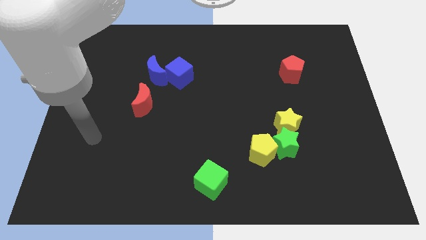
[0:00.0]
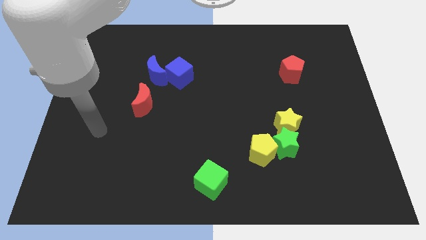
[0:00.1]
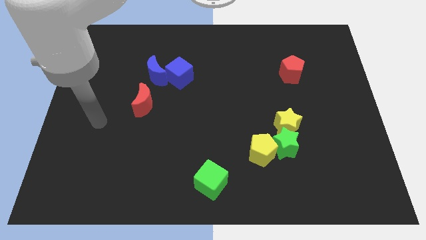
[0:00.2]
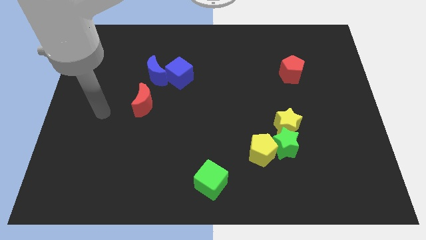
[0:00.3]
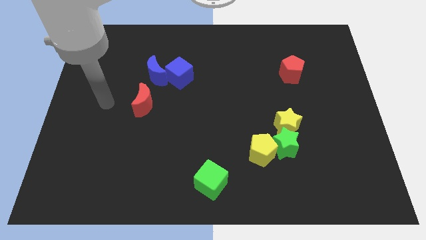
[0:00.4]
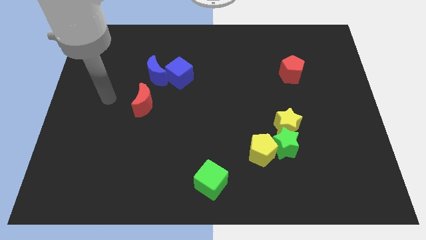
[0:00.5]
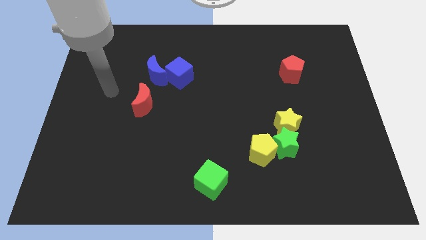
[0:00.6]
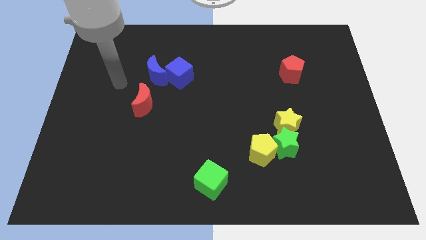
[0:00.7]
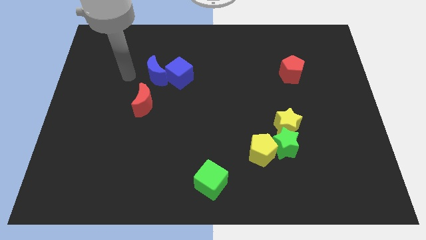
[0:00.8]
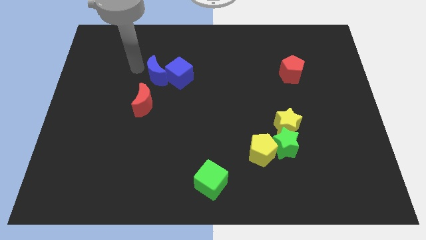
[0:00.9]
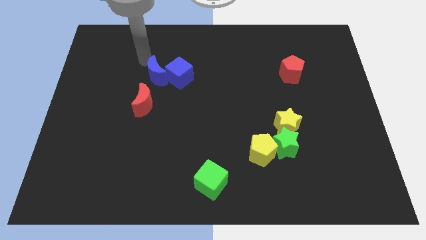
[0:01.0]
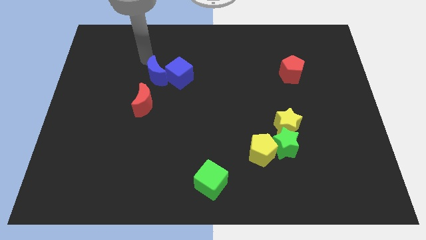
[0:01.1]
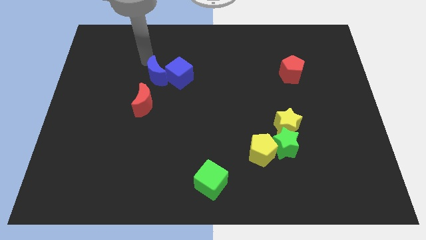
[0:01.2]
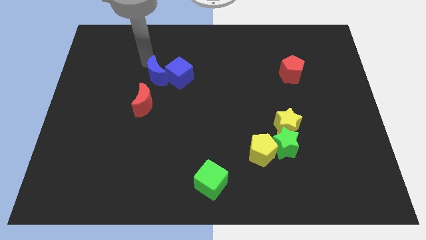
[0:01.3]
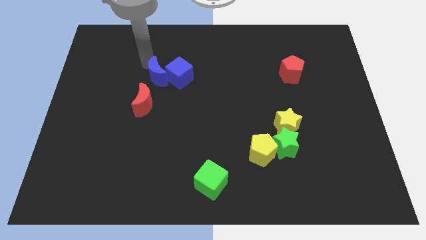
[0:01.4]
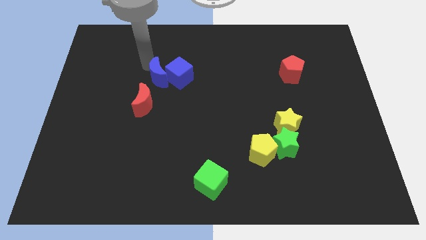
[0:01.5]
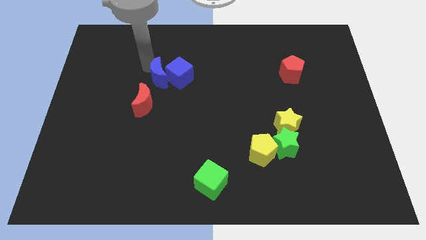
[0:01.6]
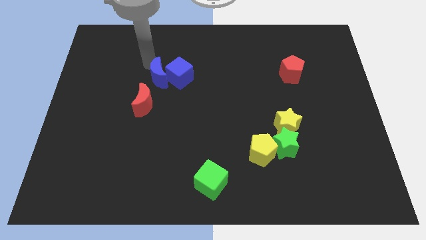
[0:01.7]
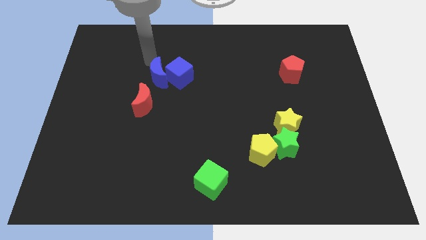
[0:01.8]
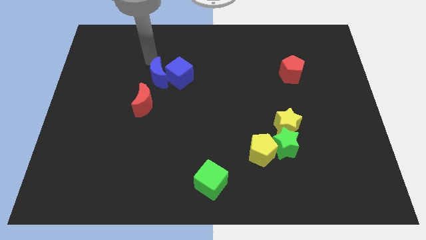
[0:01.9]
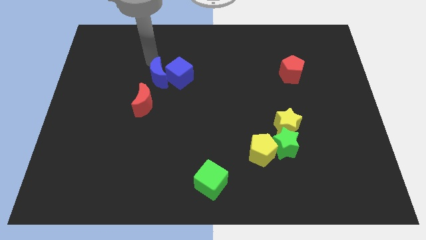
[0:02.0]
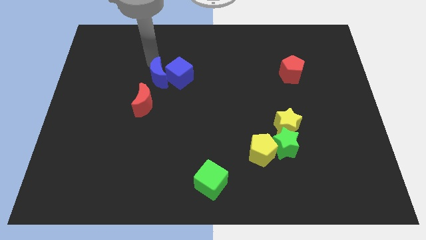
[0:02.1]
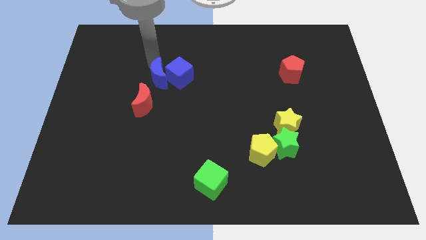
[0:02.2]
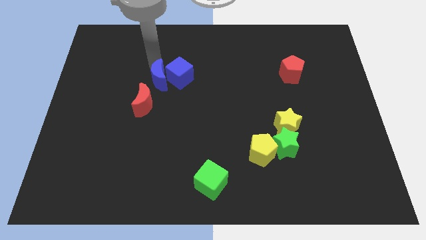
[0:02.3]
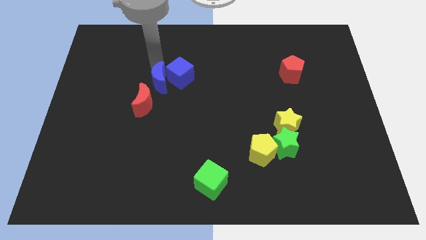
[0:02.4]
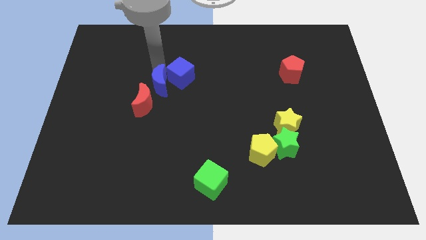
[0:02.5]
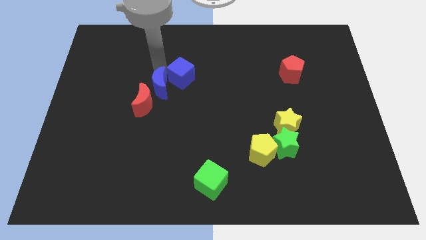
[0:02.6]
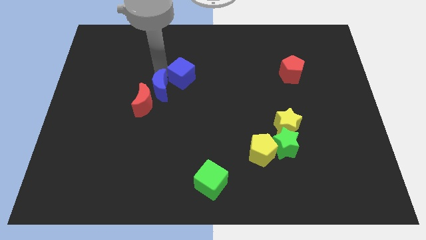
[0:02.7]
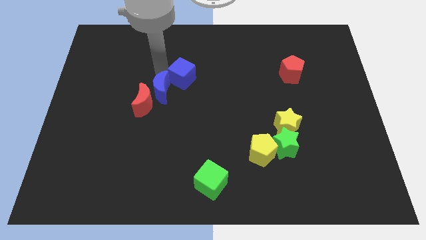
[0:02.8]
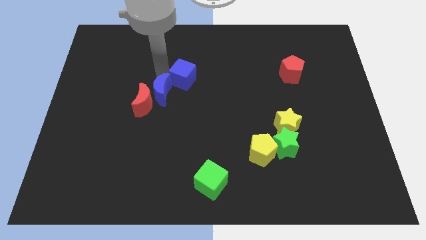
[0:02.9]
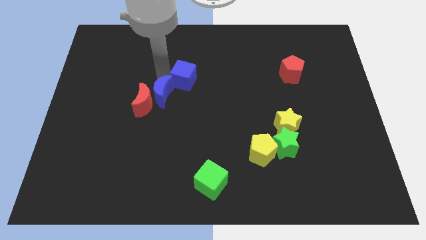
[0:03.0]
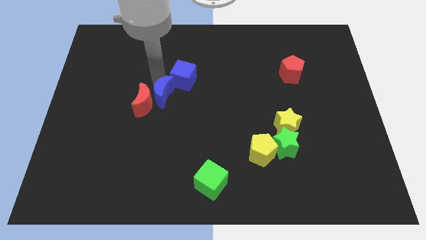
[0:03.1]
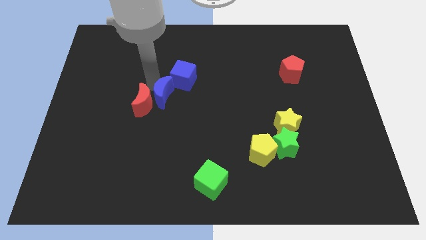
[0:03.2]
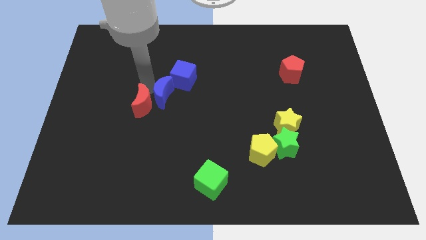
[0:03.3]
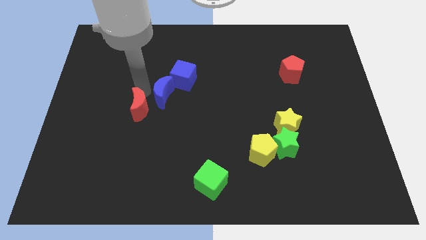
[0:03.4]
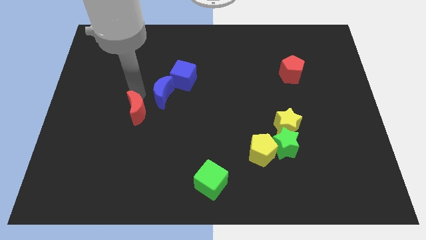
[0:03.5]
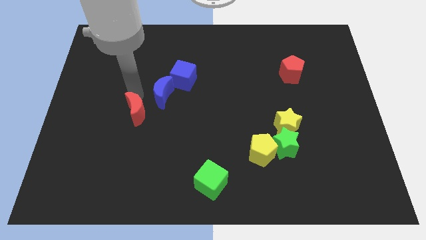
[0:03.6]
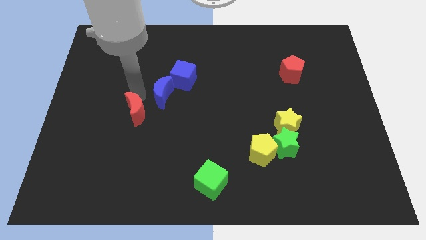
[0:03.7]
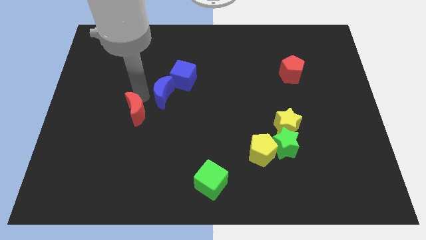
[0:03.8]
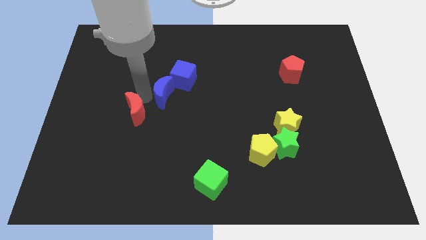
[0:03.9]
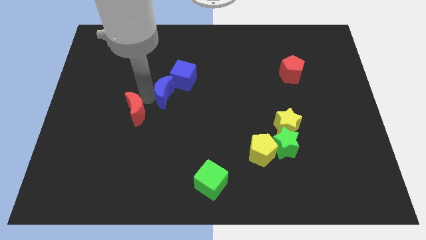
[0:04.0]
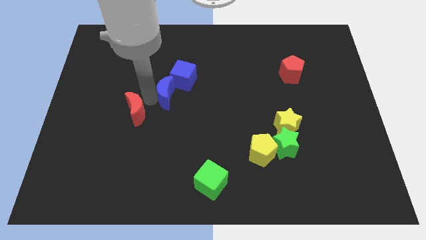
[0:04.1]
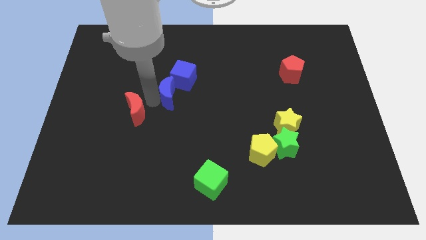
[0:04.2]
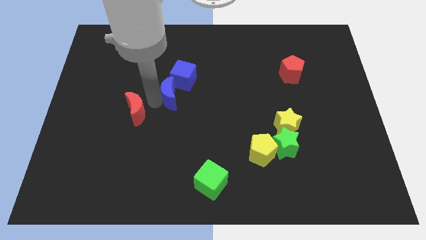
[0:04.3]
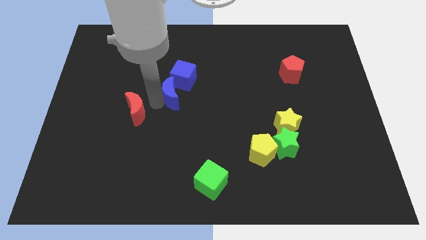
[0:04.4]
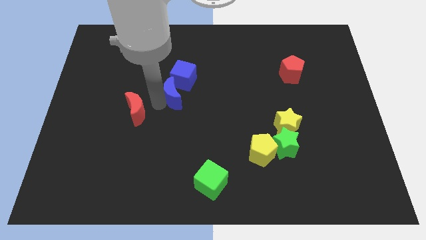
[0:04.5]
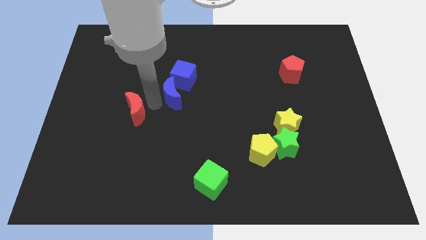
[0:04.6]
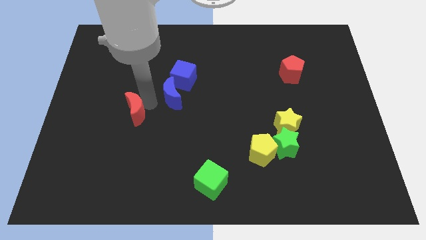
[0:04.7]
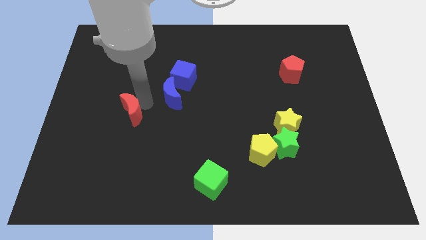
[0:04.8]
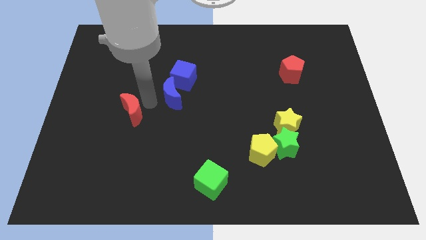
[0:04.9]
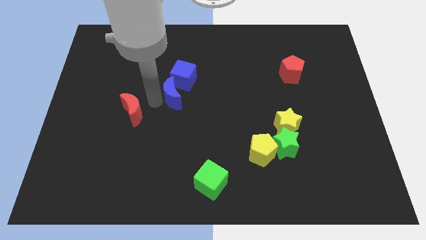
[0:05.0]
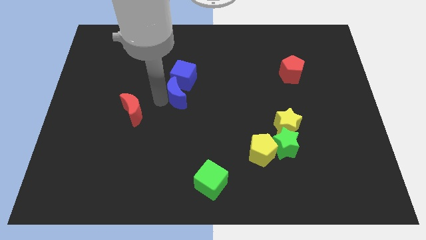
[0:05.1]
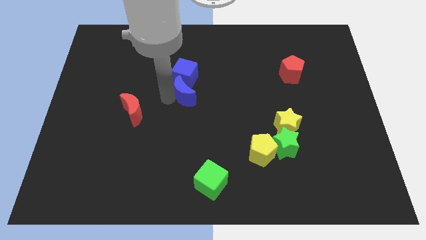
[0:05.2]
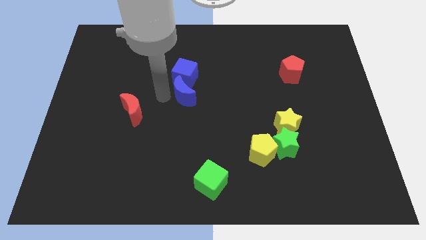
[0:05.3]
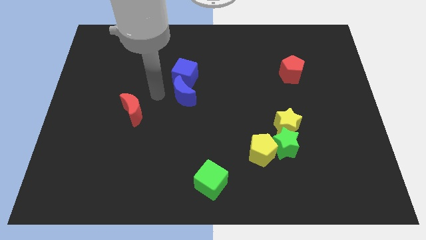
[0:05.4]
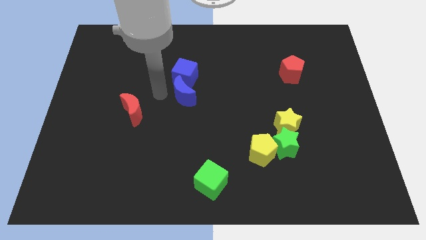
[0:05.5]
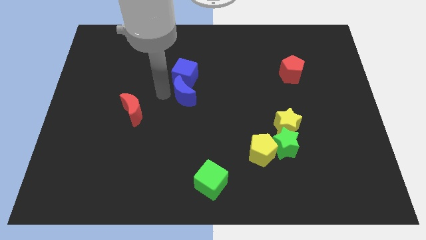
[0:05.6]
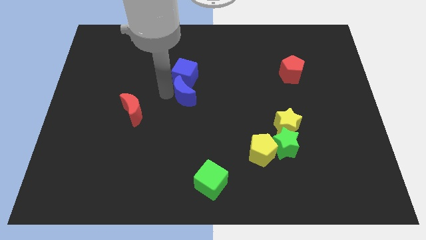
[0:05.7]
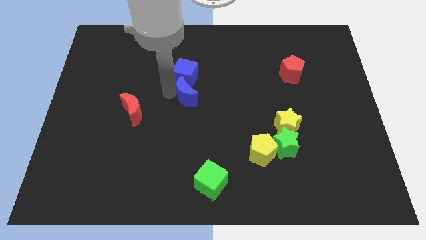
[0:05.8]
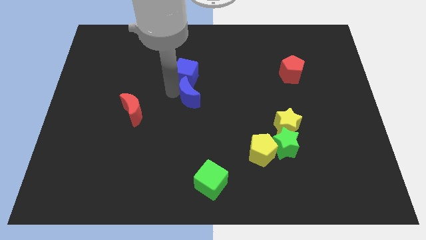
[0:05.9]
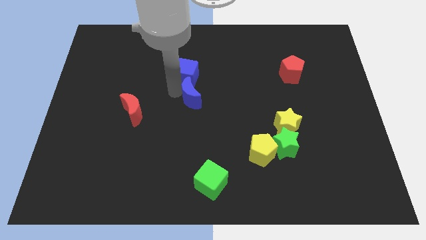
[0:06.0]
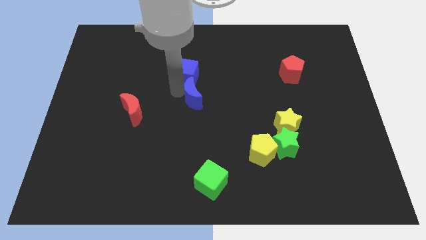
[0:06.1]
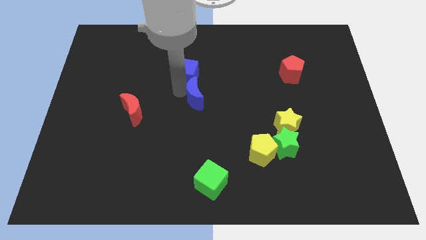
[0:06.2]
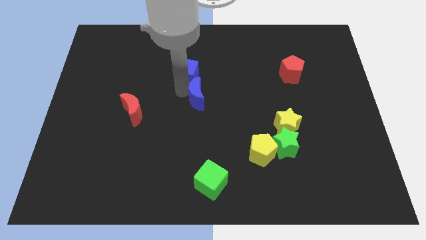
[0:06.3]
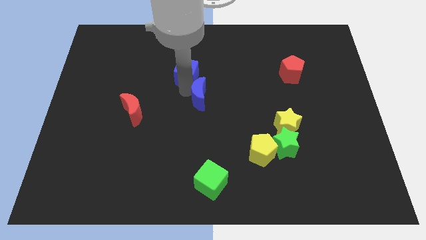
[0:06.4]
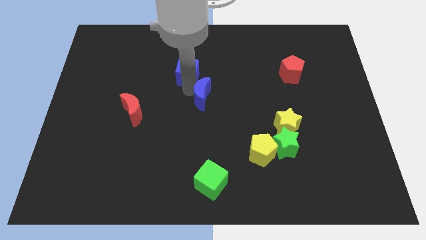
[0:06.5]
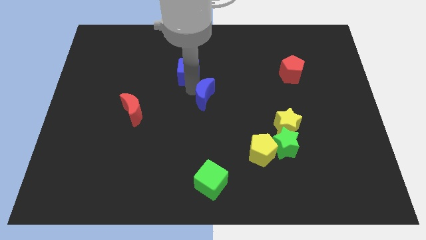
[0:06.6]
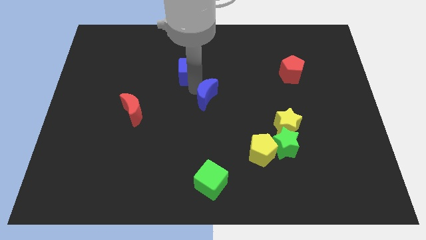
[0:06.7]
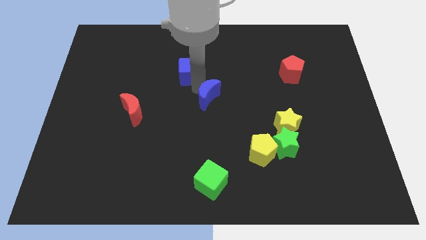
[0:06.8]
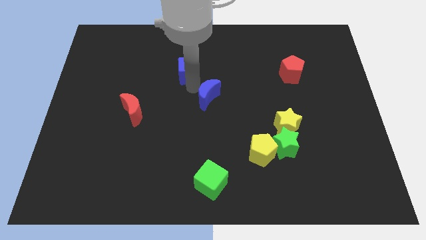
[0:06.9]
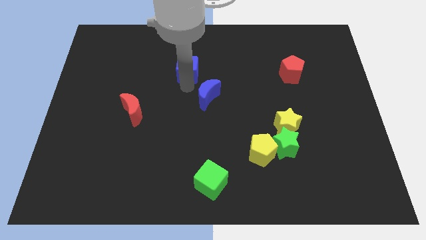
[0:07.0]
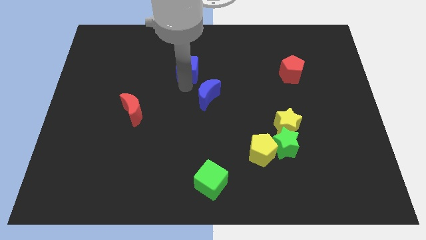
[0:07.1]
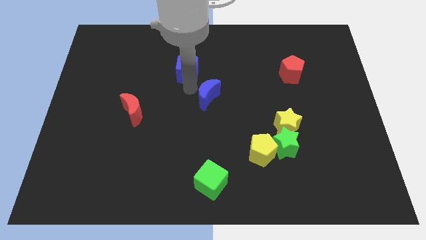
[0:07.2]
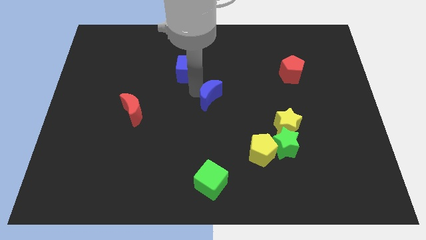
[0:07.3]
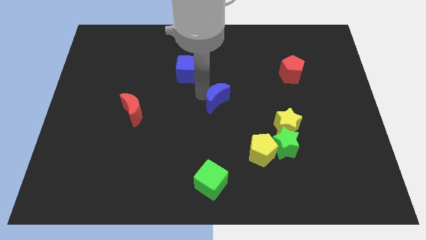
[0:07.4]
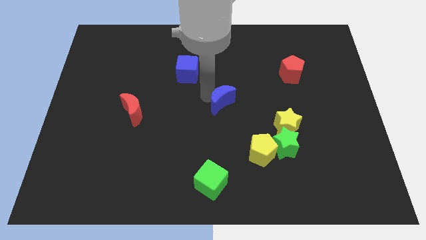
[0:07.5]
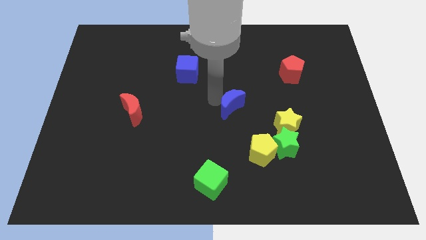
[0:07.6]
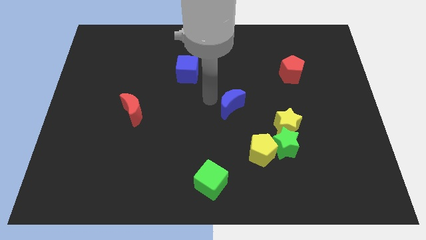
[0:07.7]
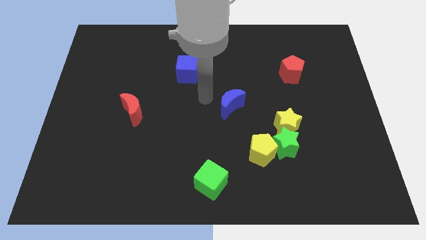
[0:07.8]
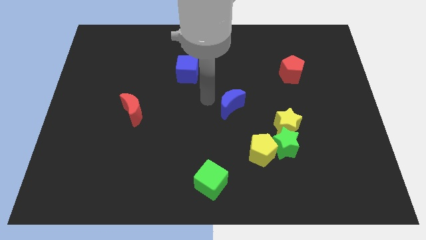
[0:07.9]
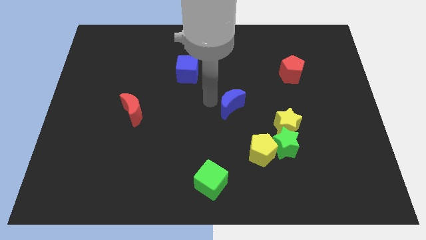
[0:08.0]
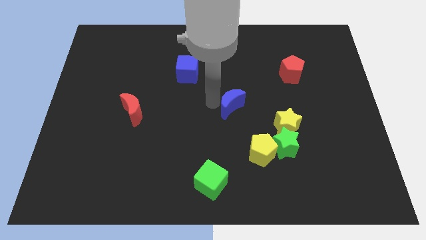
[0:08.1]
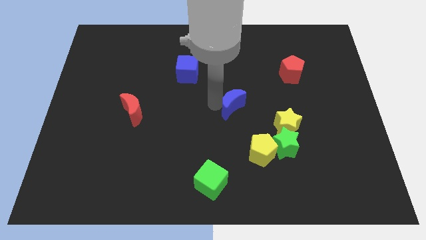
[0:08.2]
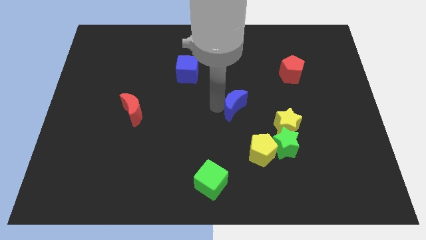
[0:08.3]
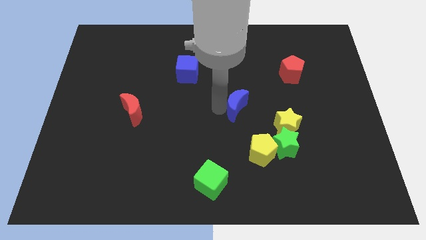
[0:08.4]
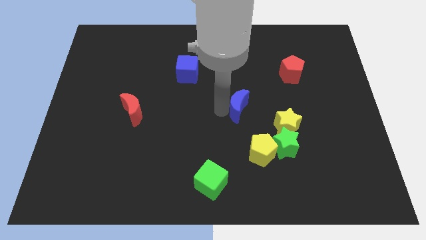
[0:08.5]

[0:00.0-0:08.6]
slide the blue moon to the top of the yellow pentagon
